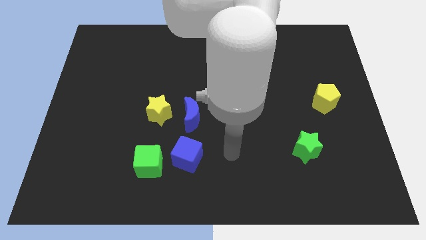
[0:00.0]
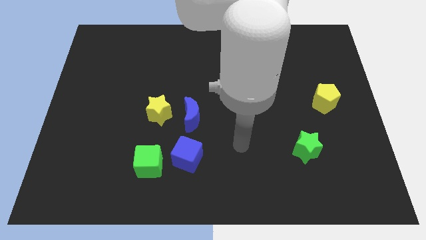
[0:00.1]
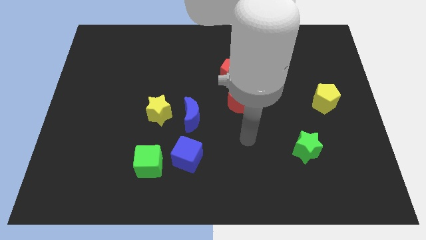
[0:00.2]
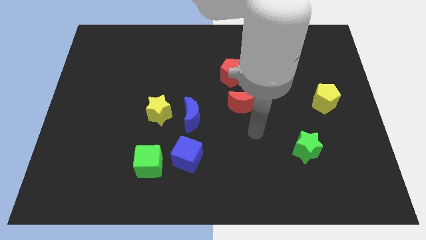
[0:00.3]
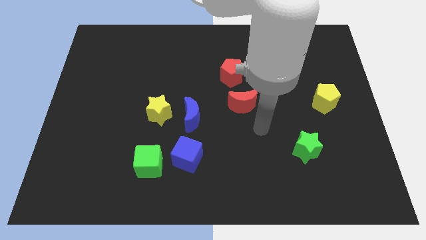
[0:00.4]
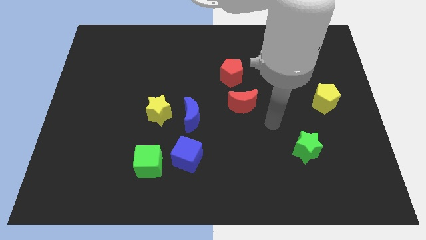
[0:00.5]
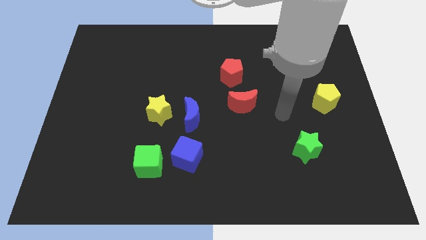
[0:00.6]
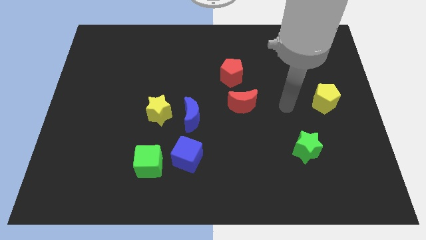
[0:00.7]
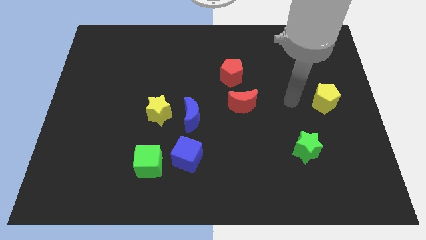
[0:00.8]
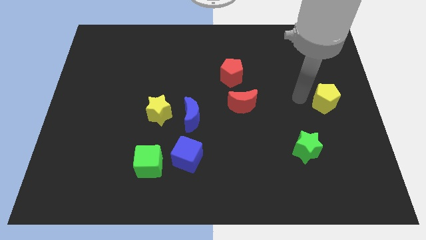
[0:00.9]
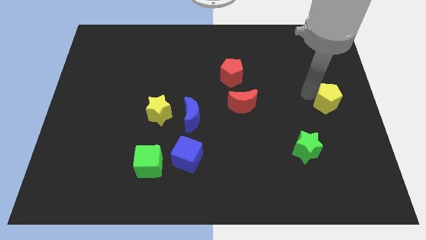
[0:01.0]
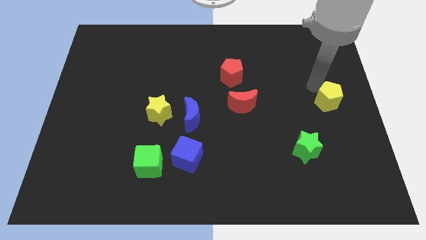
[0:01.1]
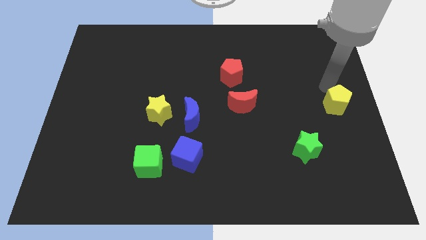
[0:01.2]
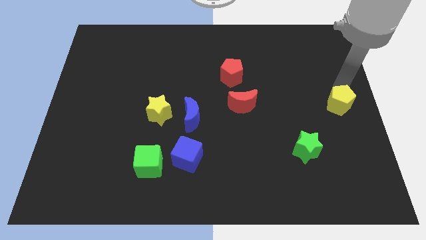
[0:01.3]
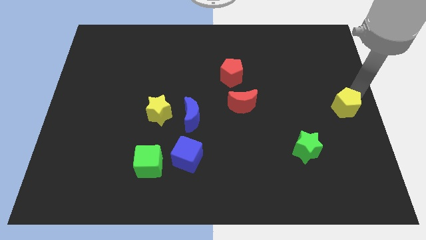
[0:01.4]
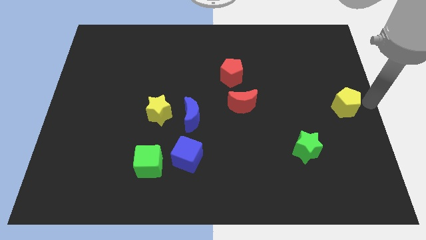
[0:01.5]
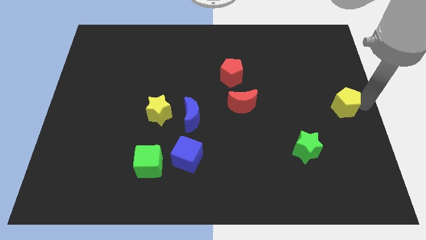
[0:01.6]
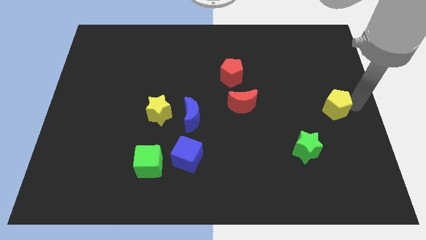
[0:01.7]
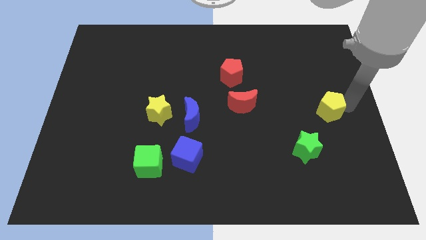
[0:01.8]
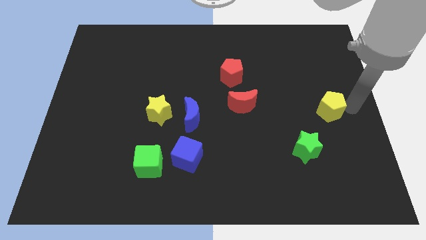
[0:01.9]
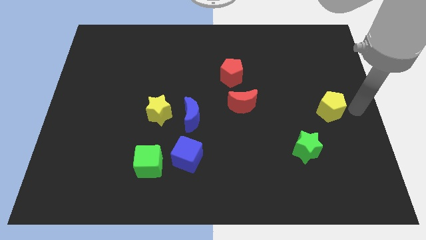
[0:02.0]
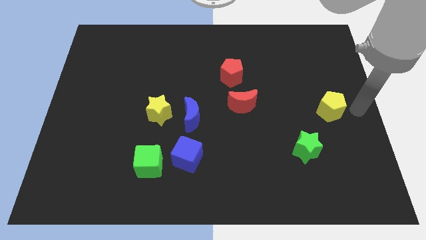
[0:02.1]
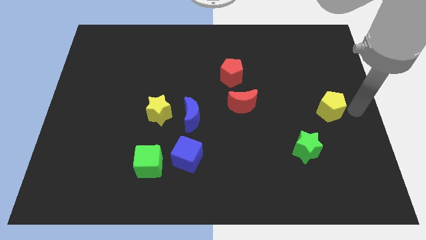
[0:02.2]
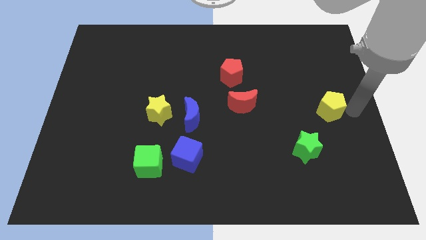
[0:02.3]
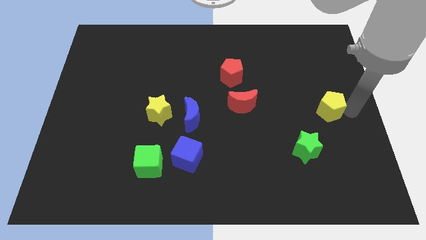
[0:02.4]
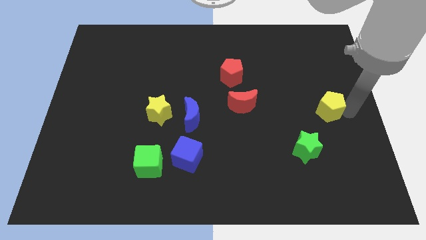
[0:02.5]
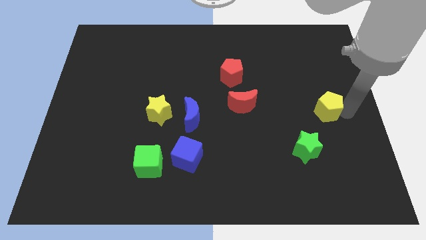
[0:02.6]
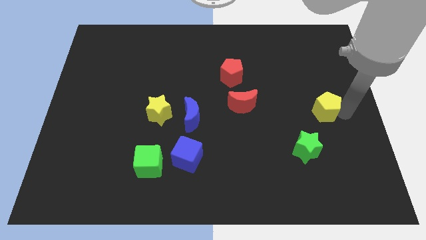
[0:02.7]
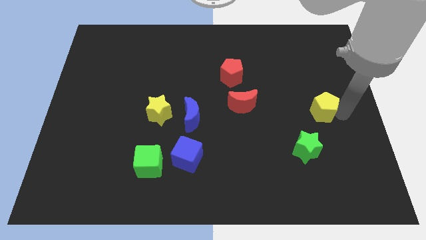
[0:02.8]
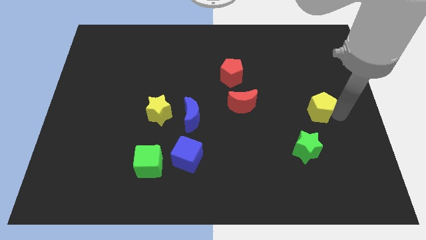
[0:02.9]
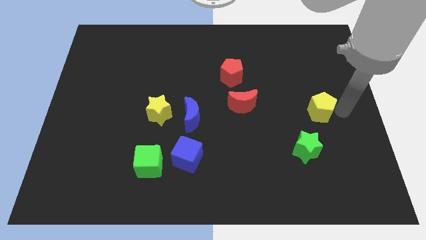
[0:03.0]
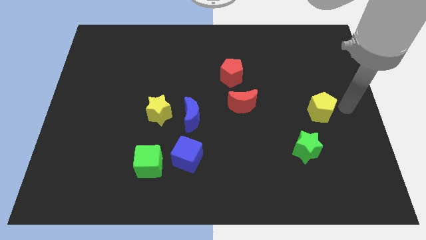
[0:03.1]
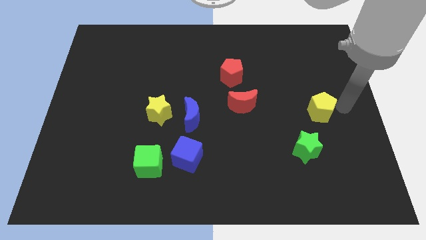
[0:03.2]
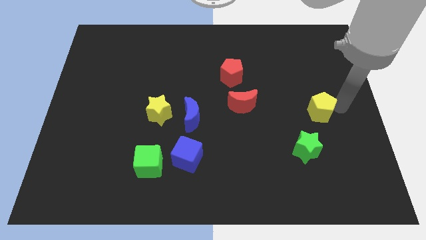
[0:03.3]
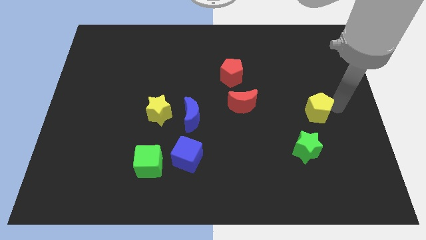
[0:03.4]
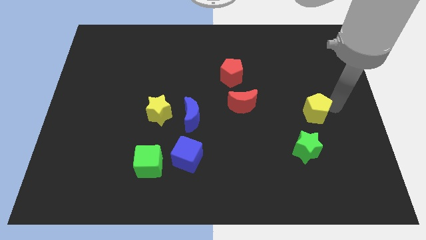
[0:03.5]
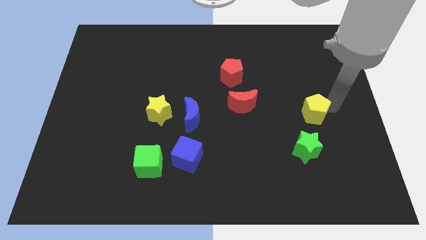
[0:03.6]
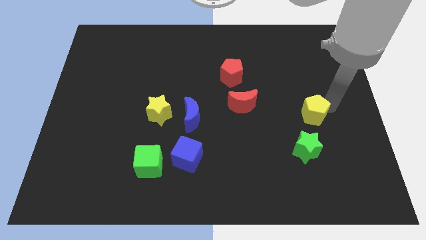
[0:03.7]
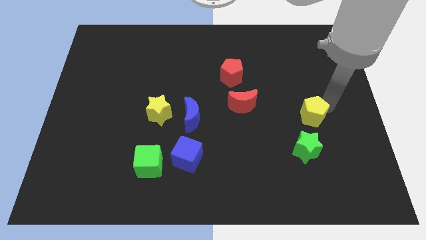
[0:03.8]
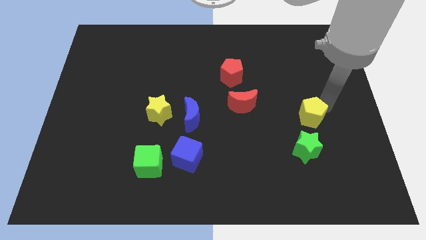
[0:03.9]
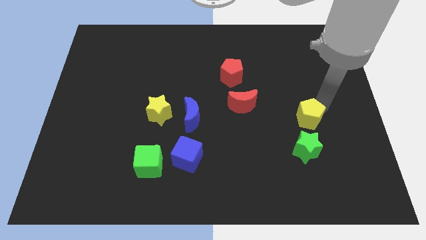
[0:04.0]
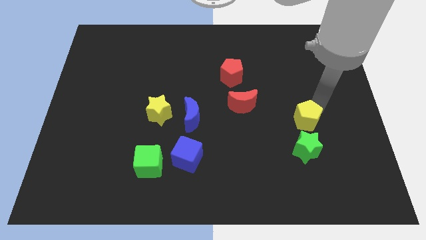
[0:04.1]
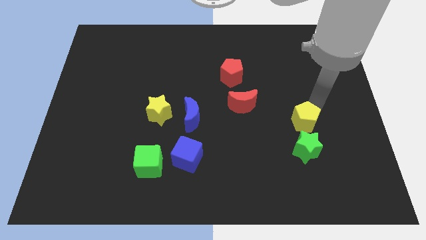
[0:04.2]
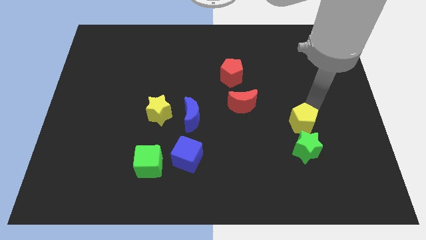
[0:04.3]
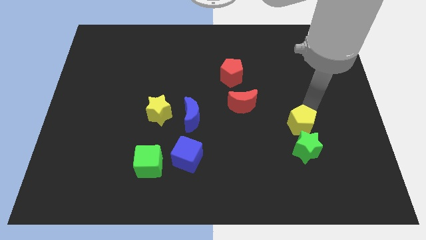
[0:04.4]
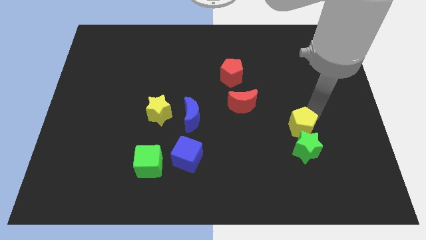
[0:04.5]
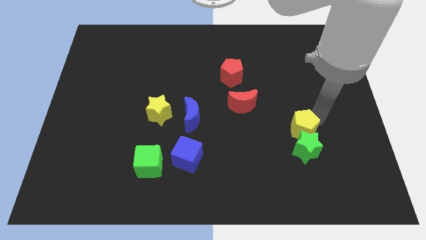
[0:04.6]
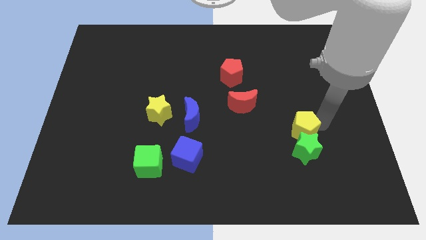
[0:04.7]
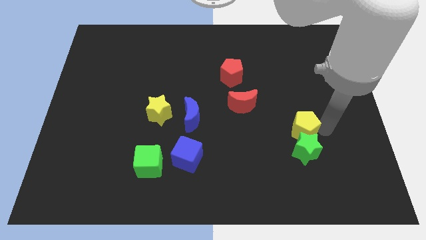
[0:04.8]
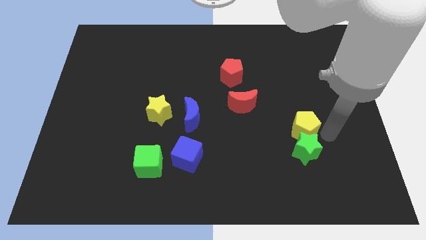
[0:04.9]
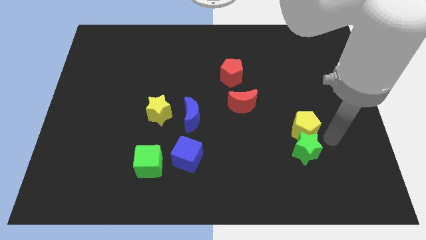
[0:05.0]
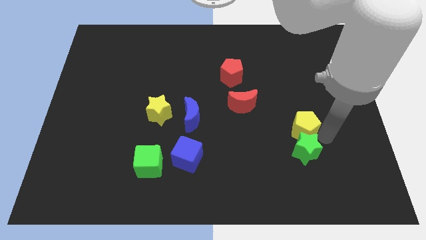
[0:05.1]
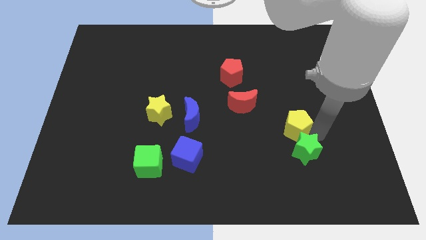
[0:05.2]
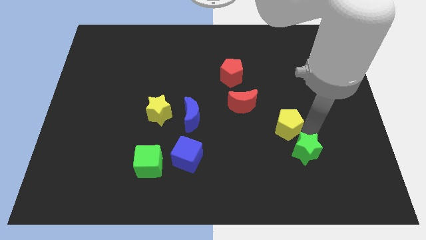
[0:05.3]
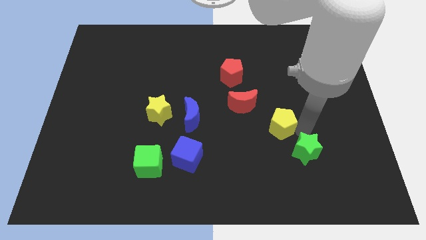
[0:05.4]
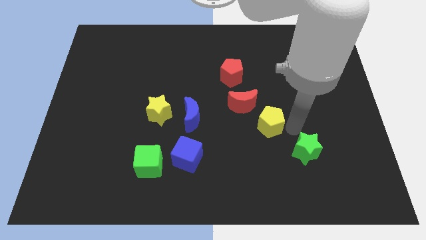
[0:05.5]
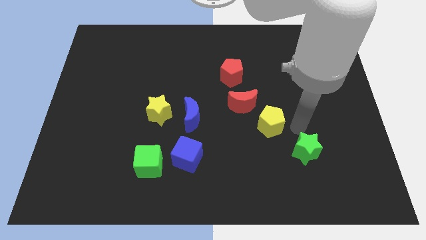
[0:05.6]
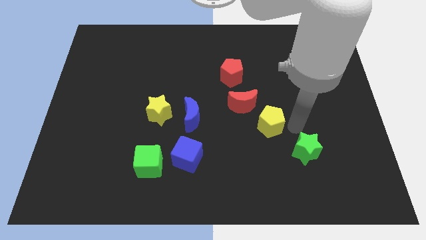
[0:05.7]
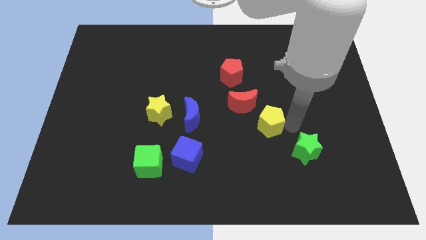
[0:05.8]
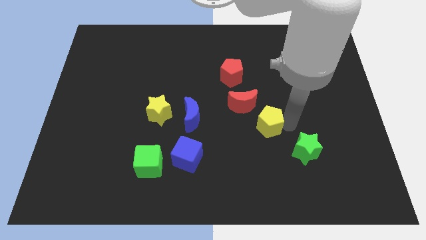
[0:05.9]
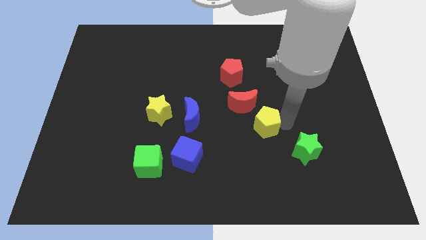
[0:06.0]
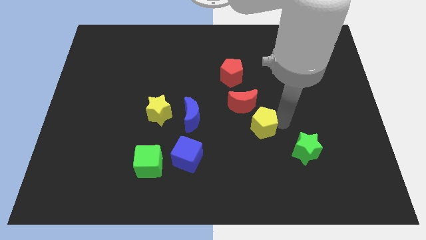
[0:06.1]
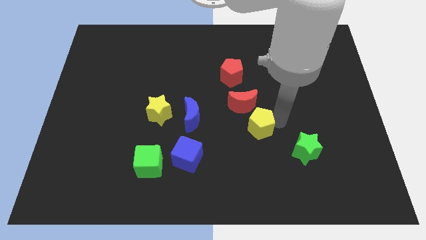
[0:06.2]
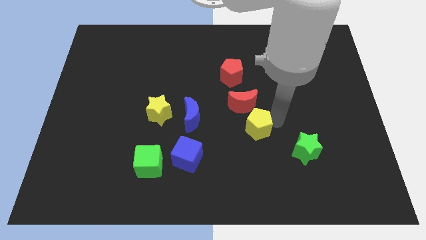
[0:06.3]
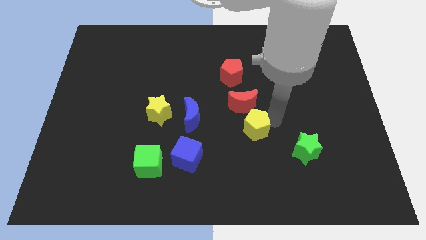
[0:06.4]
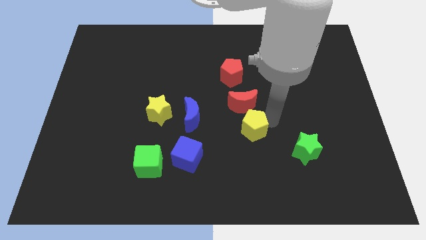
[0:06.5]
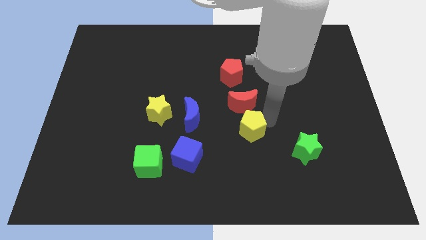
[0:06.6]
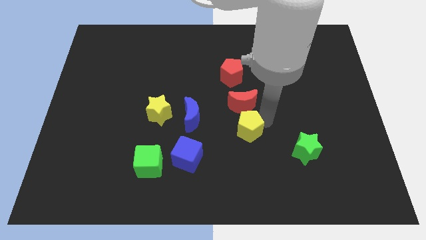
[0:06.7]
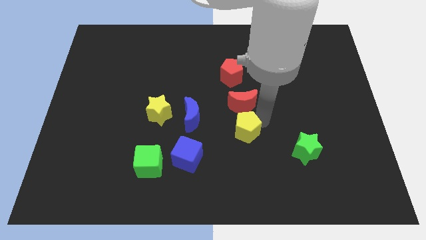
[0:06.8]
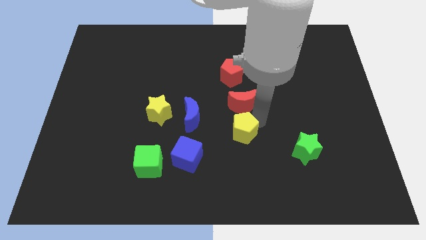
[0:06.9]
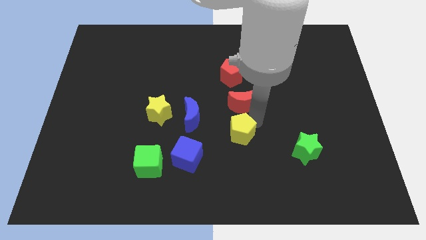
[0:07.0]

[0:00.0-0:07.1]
push the yellow pentagon to the bottom left of the red moon

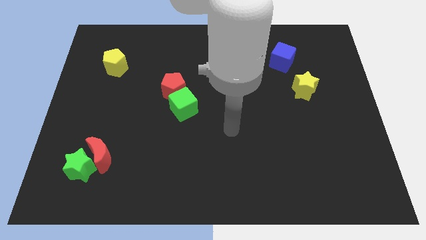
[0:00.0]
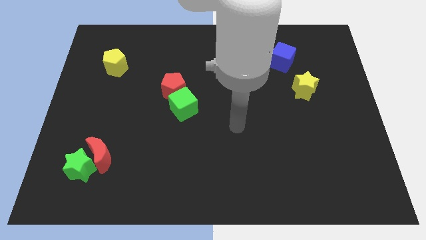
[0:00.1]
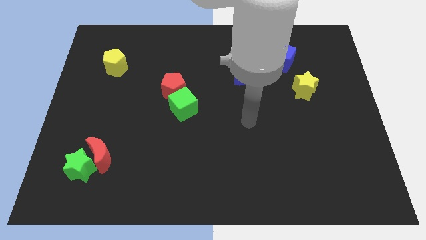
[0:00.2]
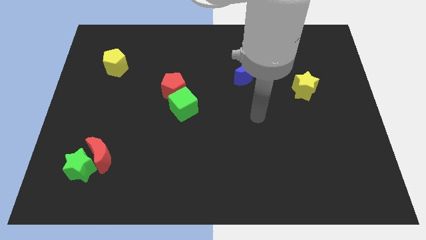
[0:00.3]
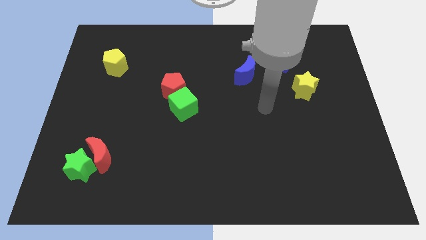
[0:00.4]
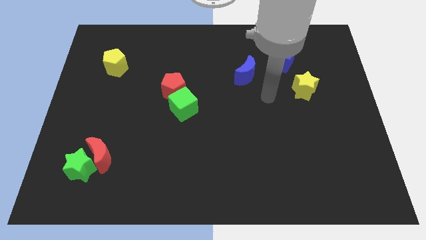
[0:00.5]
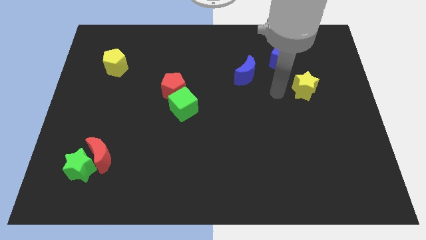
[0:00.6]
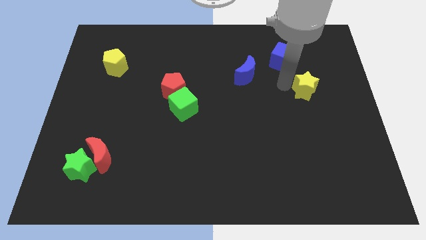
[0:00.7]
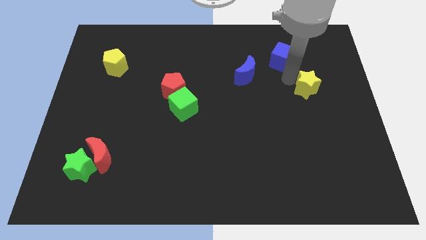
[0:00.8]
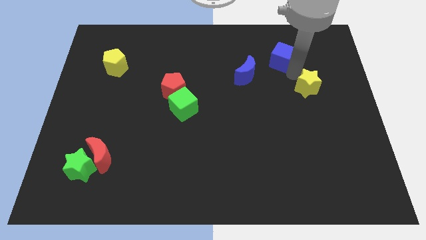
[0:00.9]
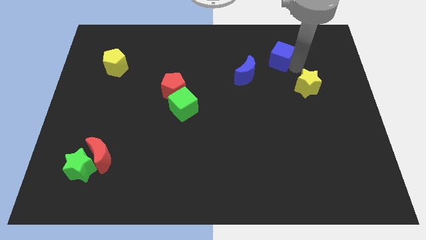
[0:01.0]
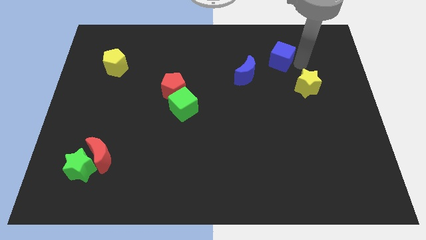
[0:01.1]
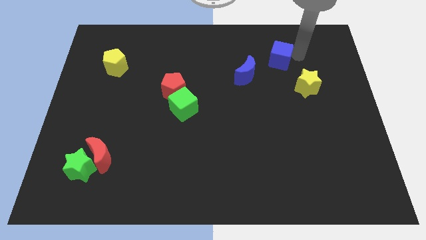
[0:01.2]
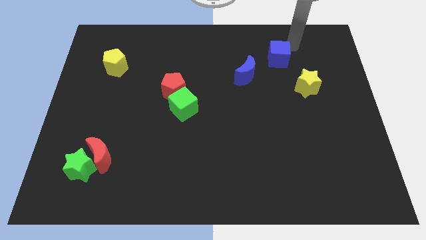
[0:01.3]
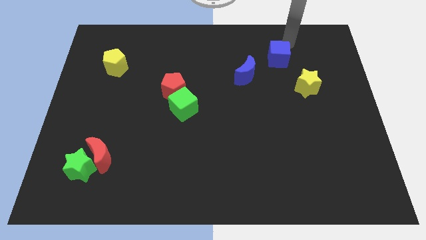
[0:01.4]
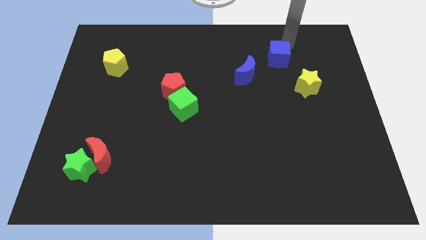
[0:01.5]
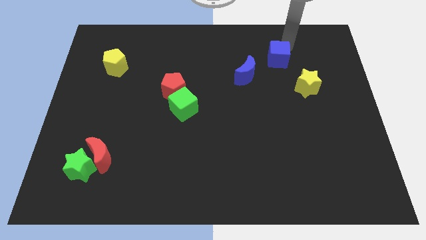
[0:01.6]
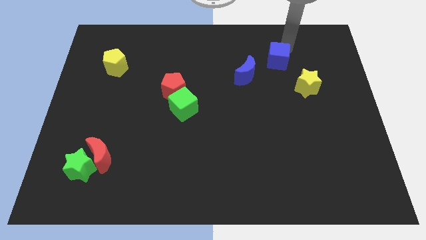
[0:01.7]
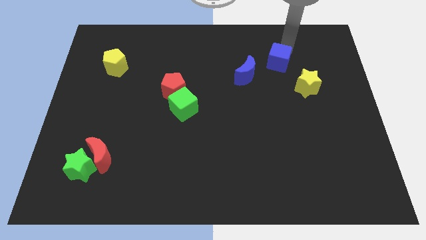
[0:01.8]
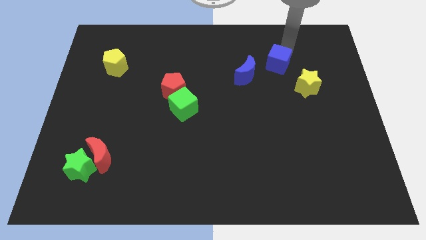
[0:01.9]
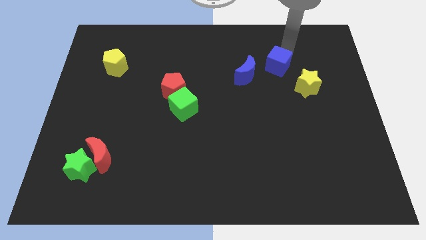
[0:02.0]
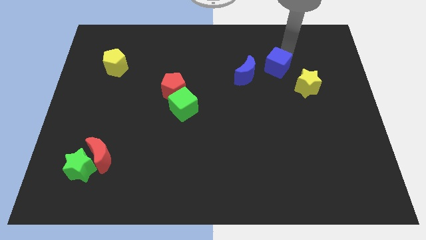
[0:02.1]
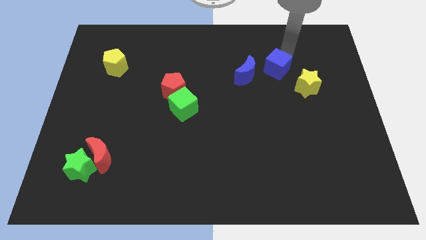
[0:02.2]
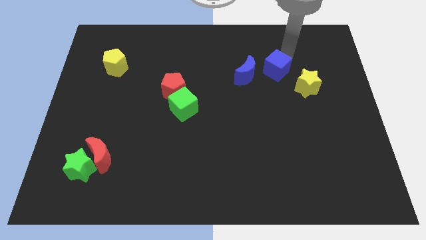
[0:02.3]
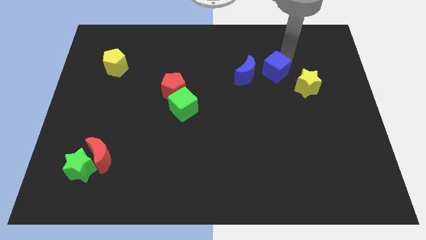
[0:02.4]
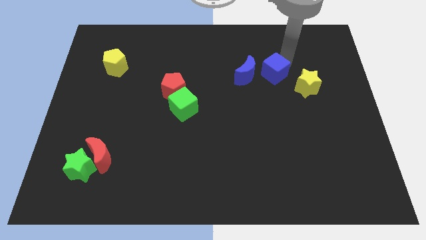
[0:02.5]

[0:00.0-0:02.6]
move the blue cube to the left side of the yellow star
